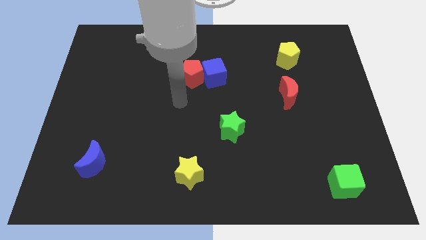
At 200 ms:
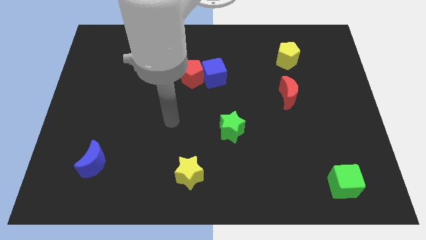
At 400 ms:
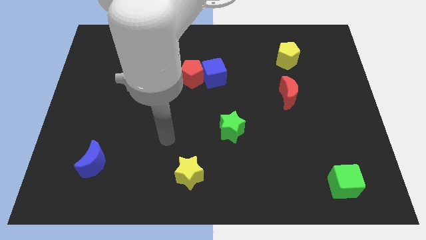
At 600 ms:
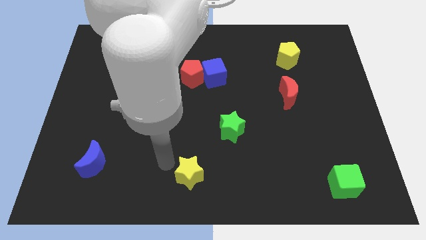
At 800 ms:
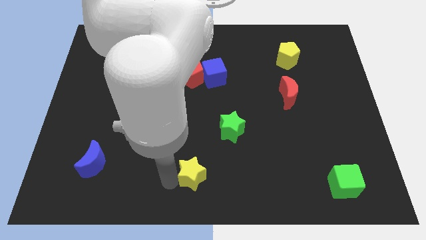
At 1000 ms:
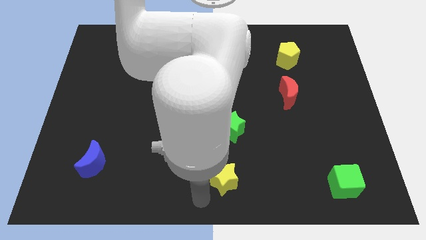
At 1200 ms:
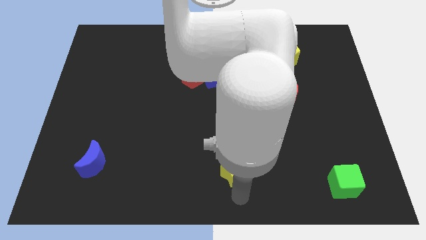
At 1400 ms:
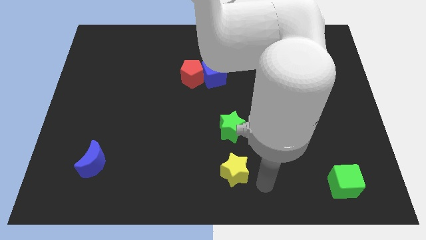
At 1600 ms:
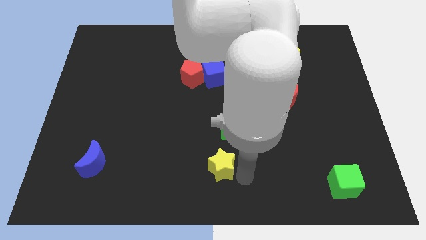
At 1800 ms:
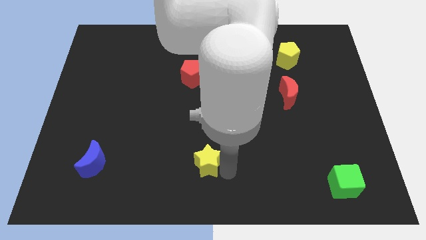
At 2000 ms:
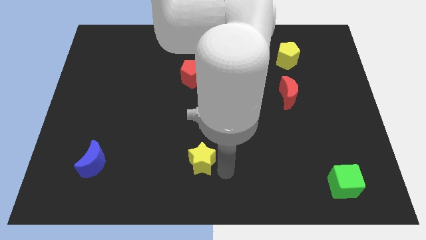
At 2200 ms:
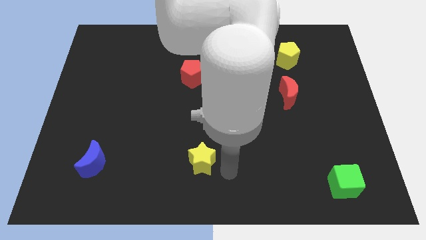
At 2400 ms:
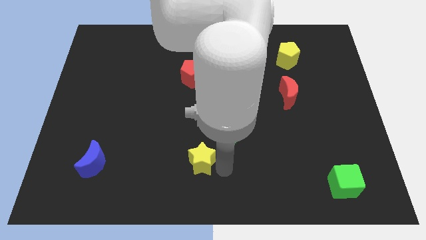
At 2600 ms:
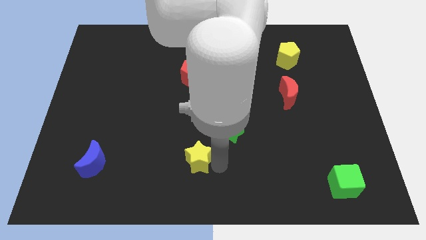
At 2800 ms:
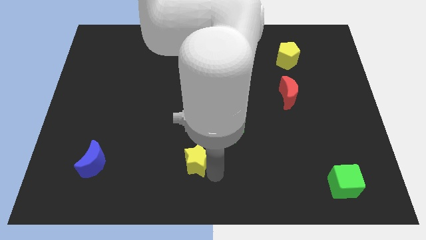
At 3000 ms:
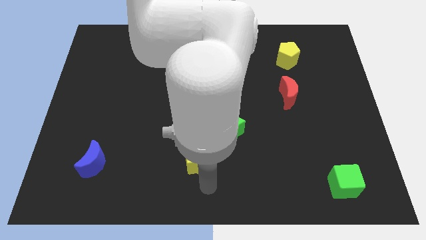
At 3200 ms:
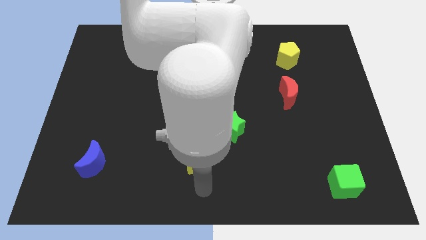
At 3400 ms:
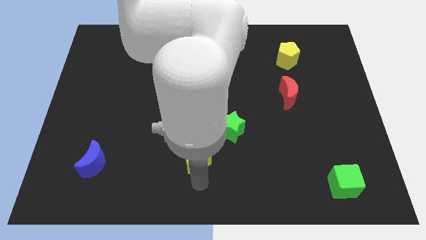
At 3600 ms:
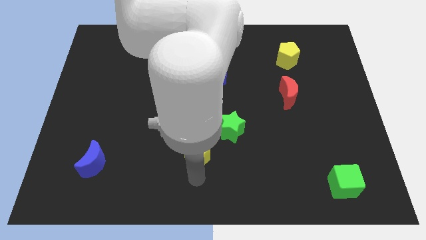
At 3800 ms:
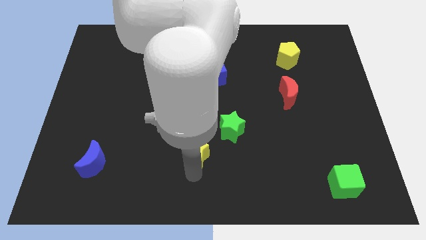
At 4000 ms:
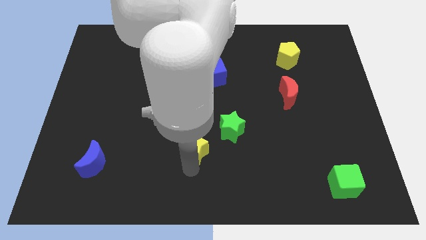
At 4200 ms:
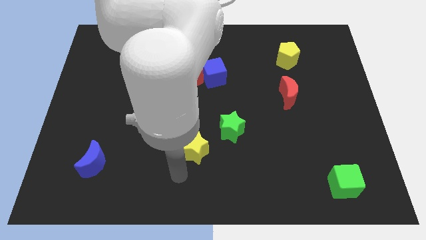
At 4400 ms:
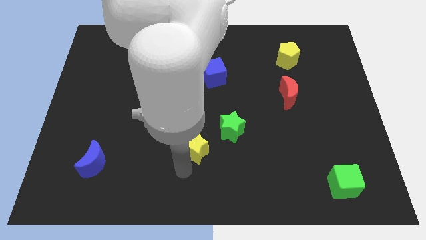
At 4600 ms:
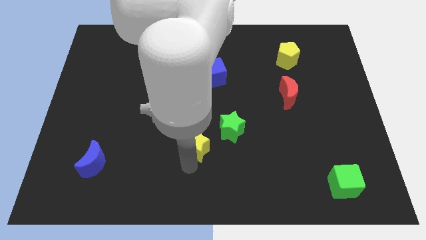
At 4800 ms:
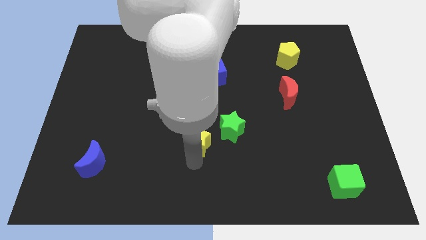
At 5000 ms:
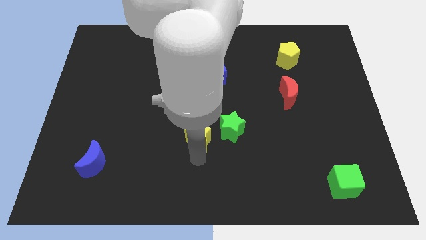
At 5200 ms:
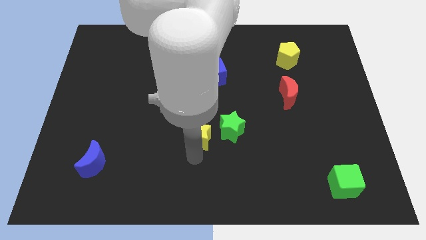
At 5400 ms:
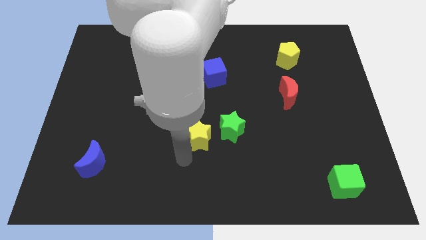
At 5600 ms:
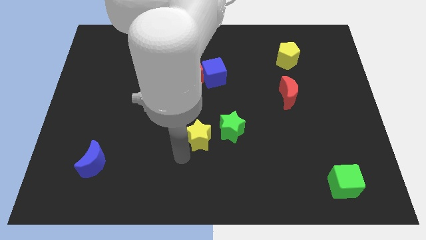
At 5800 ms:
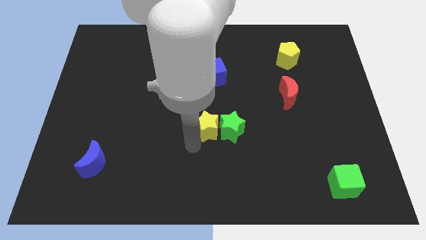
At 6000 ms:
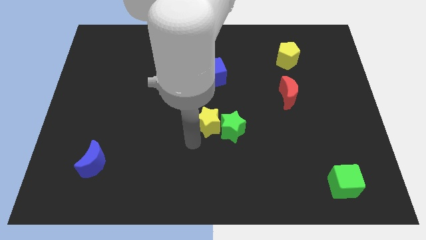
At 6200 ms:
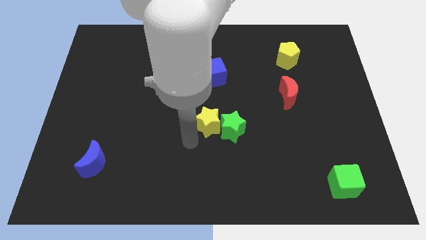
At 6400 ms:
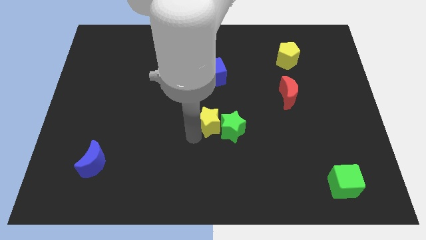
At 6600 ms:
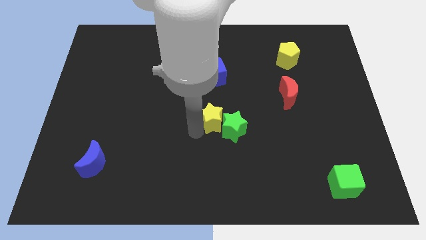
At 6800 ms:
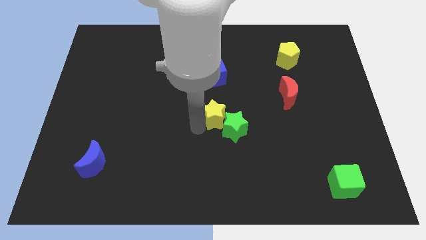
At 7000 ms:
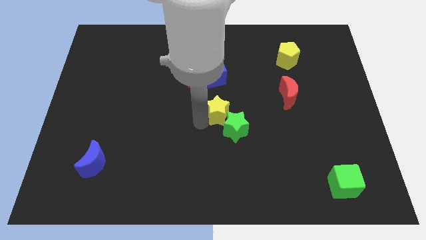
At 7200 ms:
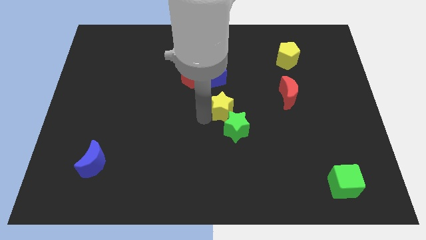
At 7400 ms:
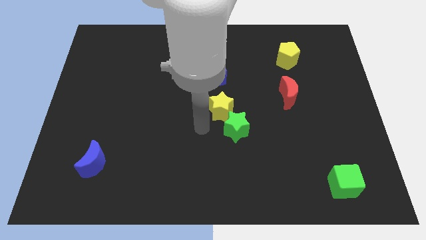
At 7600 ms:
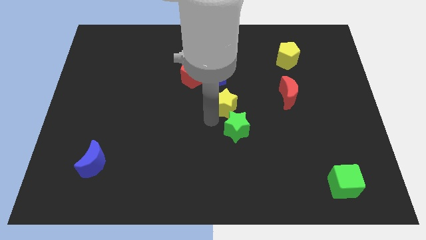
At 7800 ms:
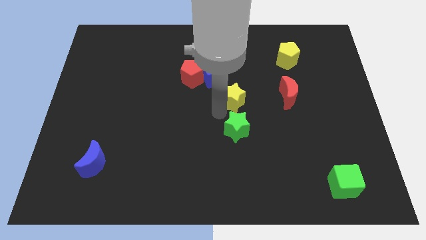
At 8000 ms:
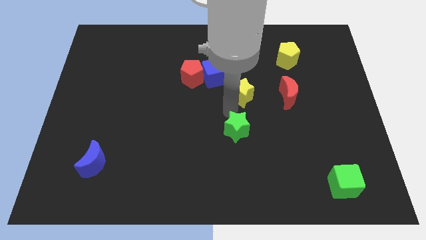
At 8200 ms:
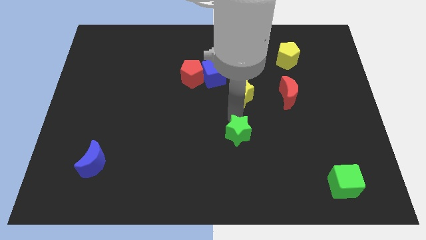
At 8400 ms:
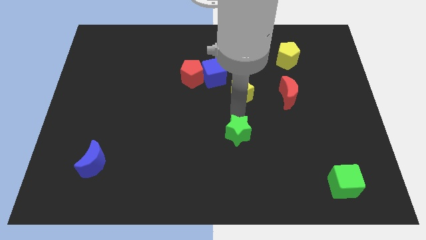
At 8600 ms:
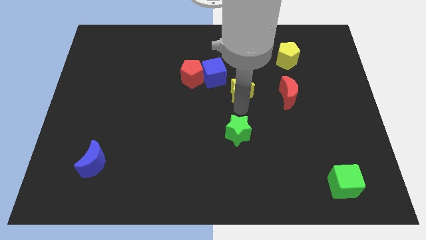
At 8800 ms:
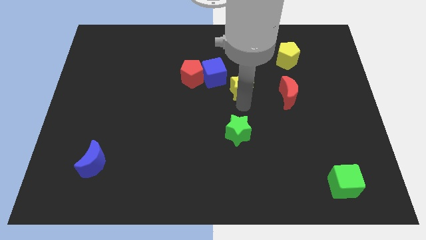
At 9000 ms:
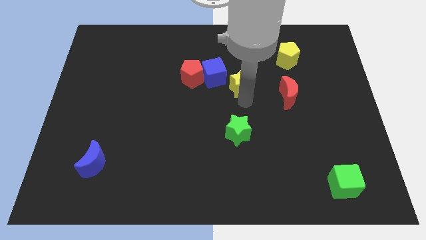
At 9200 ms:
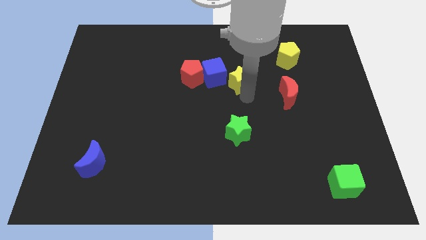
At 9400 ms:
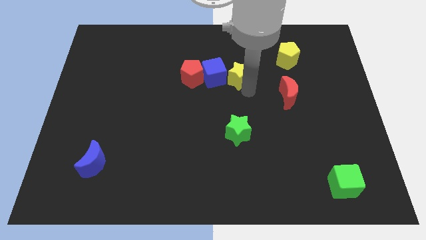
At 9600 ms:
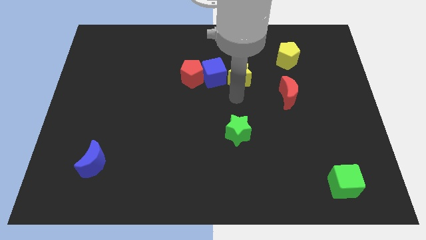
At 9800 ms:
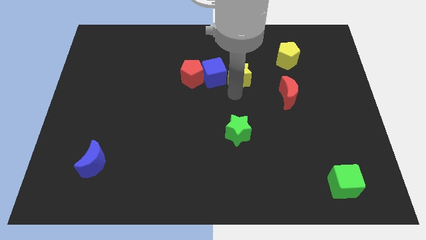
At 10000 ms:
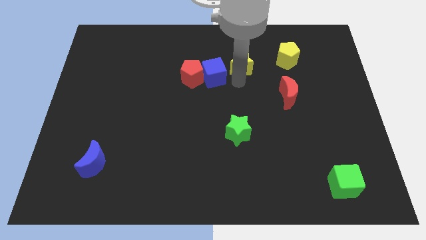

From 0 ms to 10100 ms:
slide the yellow star left of the yellow pentagon

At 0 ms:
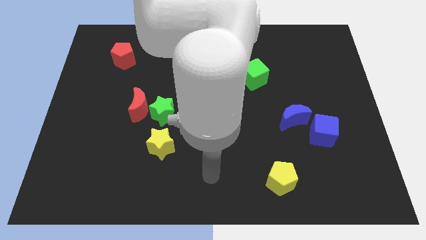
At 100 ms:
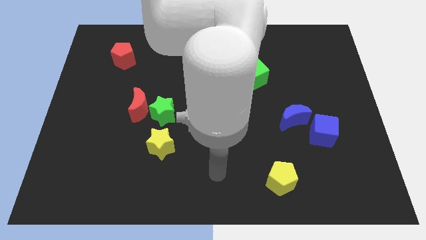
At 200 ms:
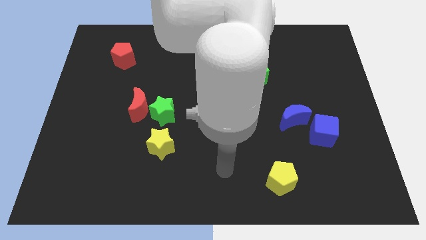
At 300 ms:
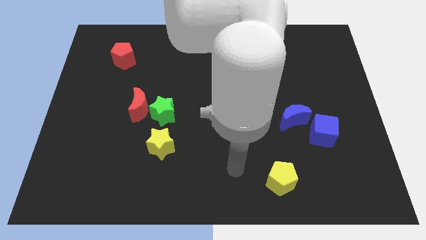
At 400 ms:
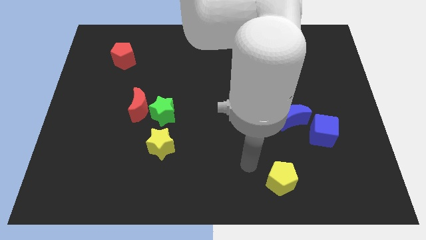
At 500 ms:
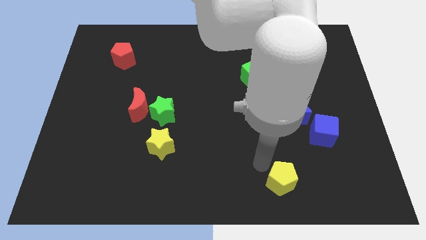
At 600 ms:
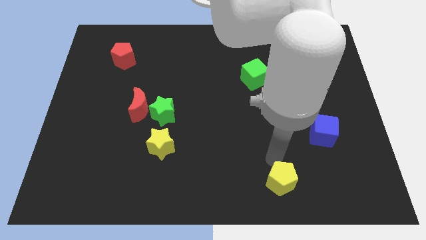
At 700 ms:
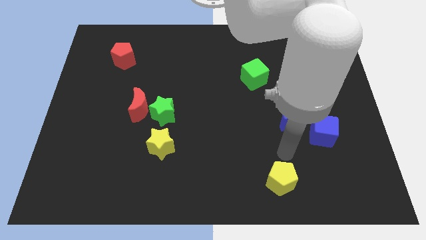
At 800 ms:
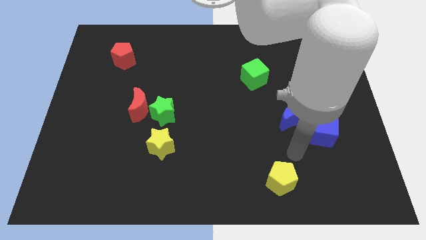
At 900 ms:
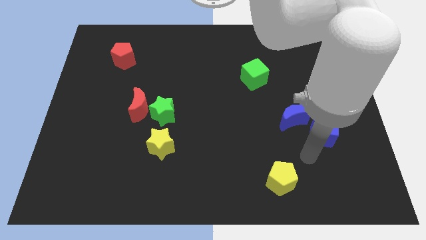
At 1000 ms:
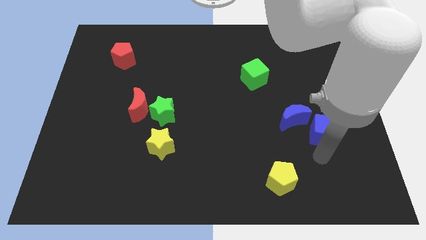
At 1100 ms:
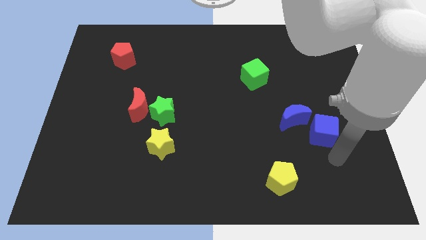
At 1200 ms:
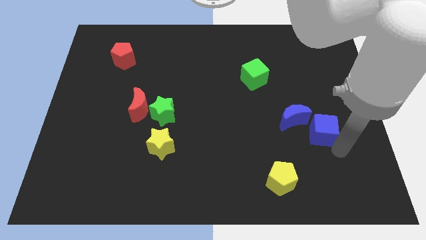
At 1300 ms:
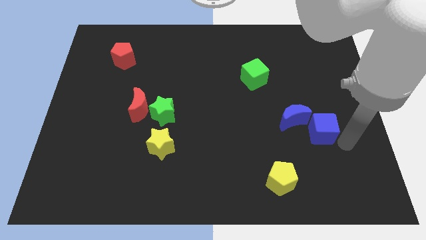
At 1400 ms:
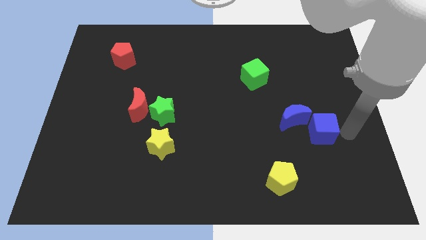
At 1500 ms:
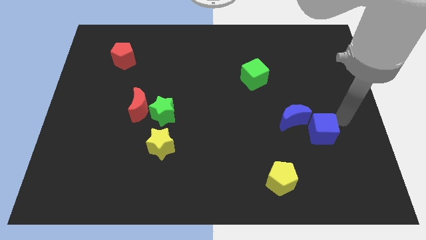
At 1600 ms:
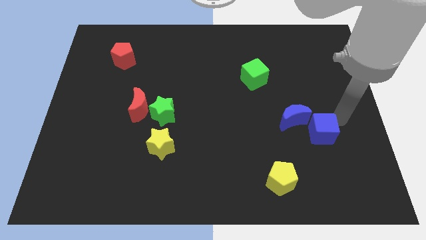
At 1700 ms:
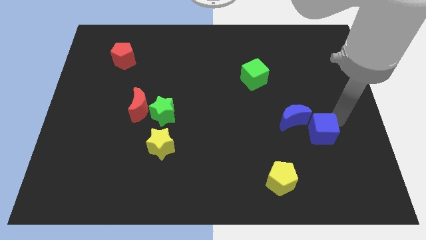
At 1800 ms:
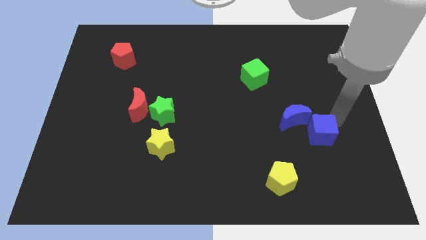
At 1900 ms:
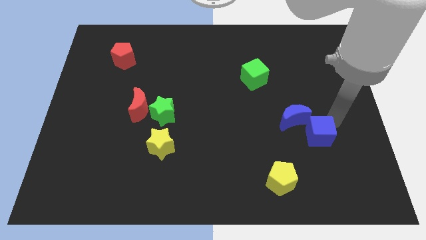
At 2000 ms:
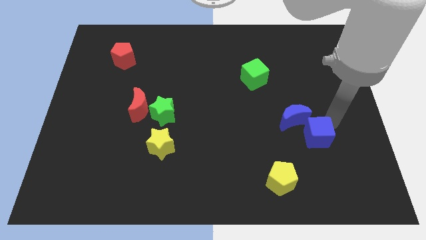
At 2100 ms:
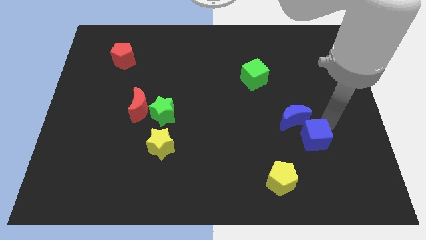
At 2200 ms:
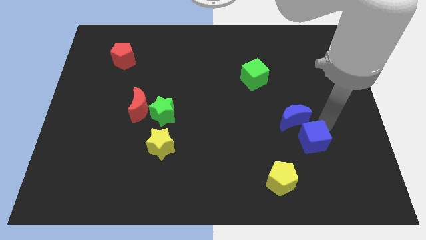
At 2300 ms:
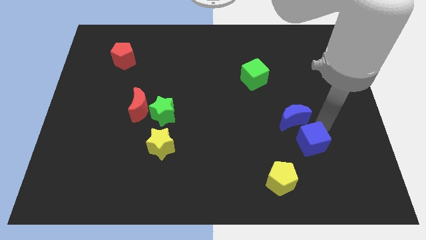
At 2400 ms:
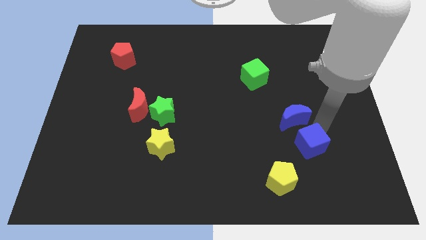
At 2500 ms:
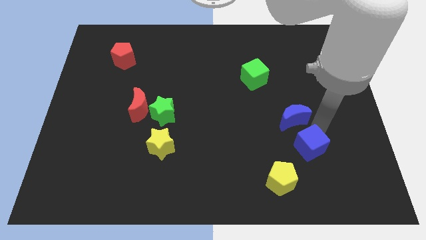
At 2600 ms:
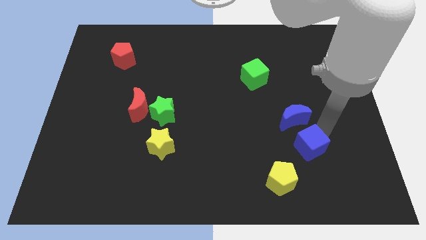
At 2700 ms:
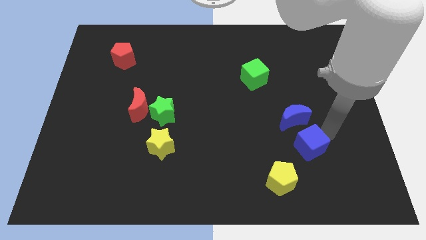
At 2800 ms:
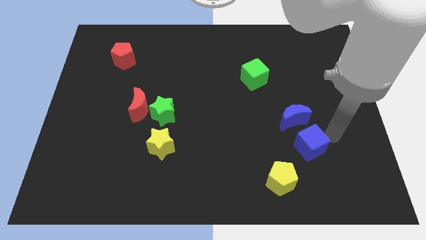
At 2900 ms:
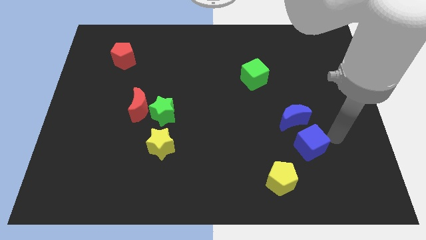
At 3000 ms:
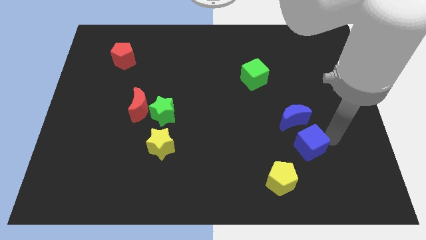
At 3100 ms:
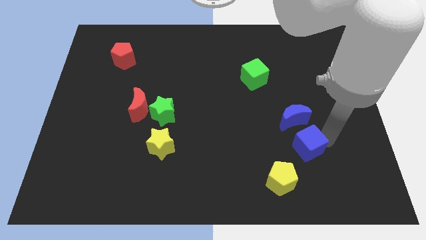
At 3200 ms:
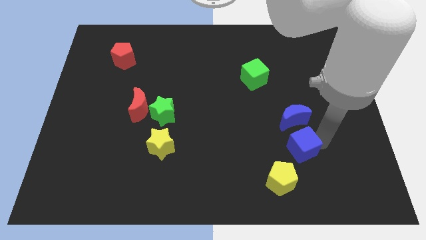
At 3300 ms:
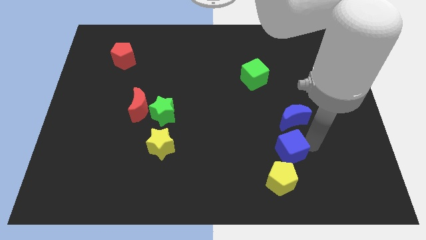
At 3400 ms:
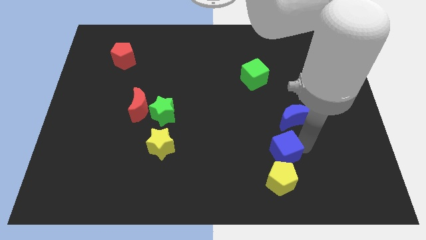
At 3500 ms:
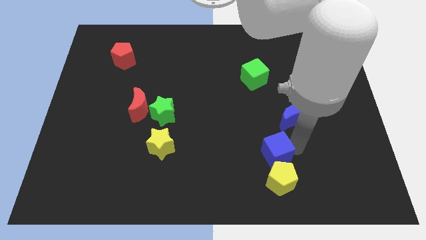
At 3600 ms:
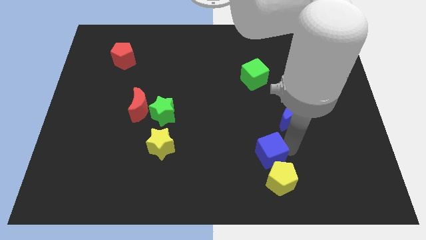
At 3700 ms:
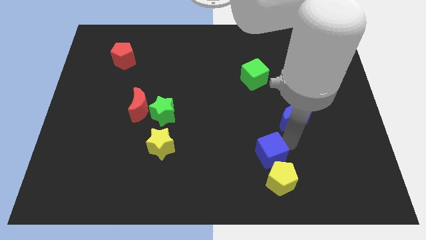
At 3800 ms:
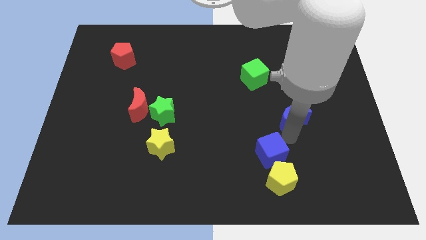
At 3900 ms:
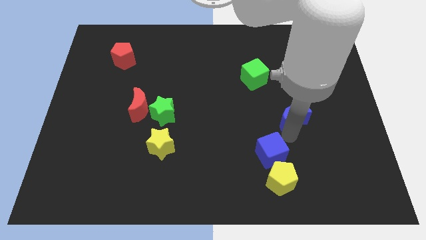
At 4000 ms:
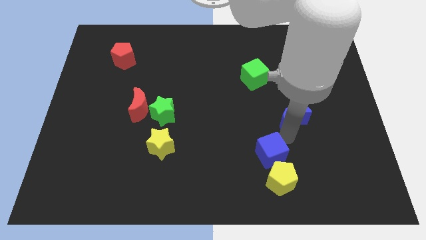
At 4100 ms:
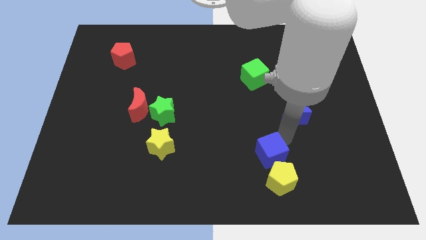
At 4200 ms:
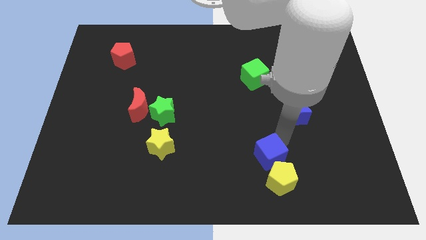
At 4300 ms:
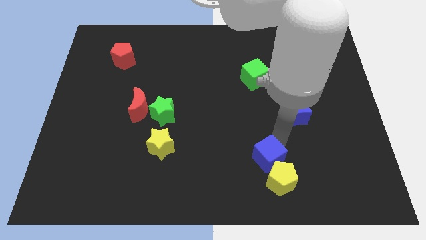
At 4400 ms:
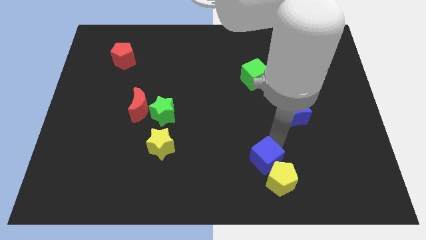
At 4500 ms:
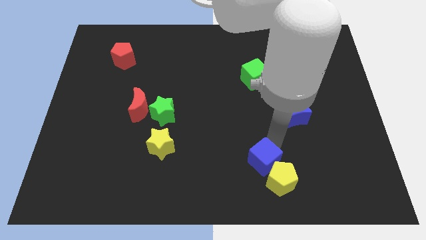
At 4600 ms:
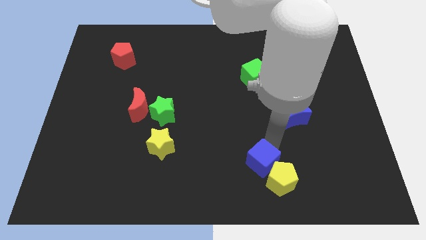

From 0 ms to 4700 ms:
put the blue cube to the left of the yellow pentagon
